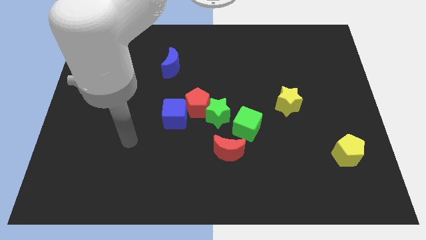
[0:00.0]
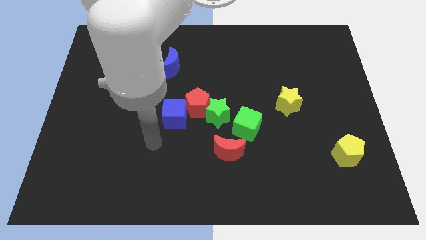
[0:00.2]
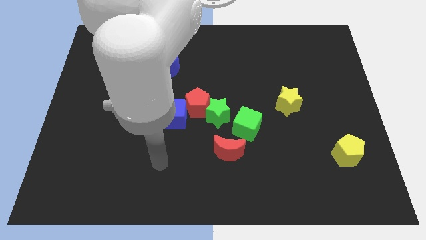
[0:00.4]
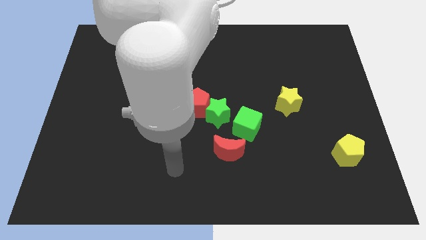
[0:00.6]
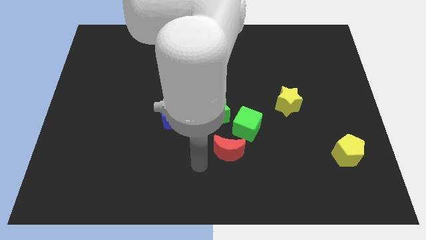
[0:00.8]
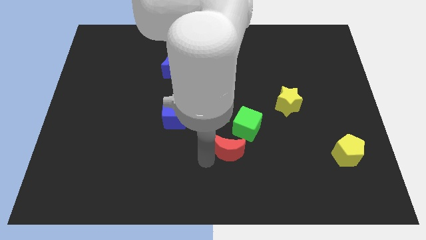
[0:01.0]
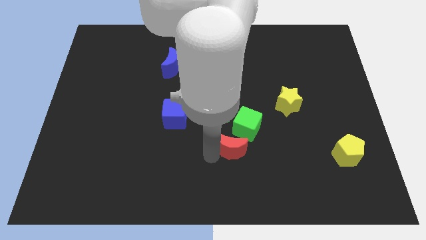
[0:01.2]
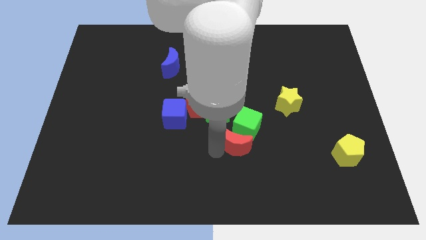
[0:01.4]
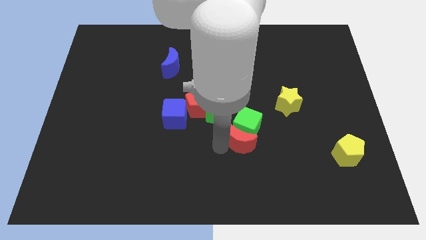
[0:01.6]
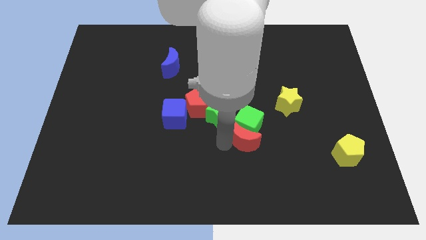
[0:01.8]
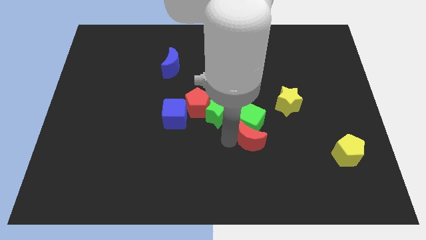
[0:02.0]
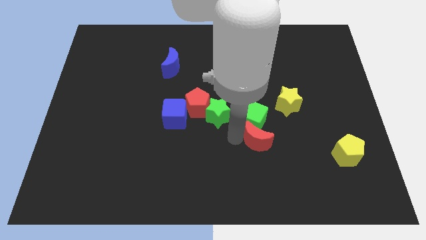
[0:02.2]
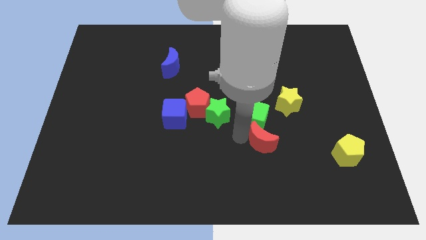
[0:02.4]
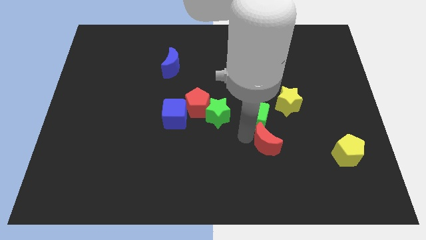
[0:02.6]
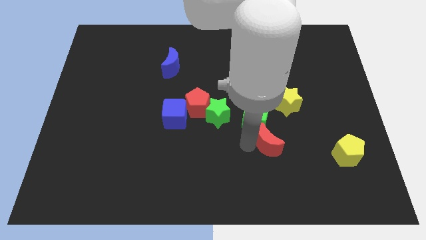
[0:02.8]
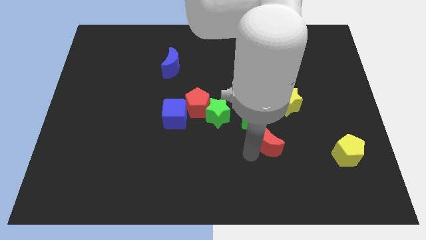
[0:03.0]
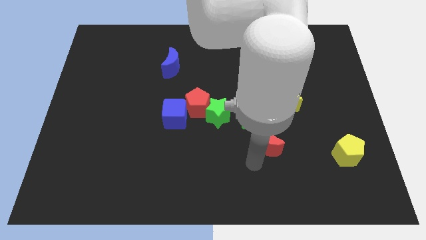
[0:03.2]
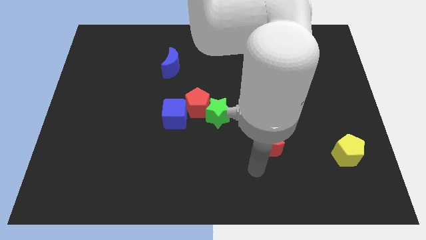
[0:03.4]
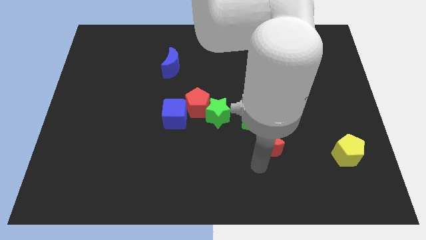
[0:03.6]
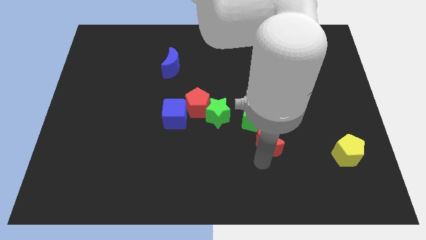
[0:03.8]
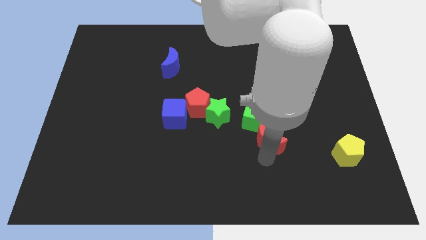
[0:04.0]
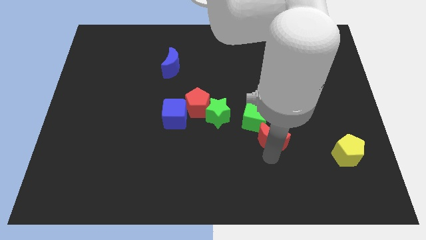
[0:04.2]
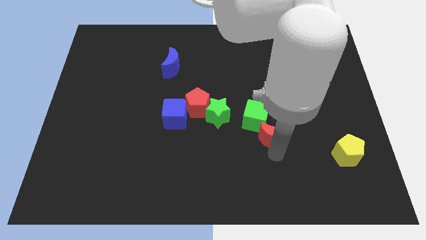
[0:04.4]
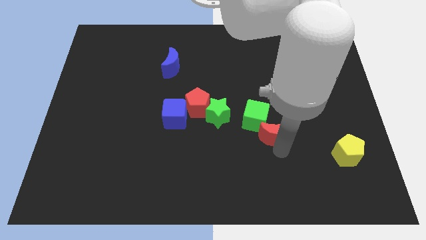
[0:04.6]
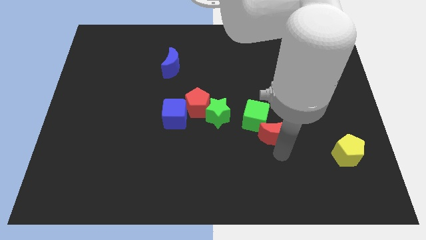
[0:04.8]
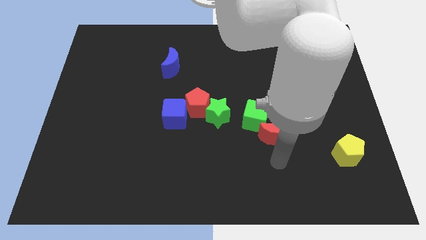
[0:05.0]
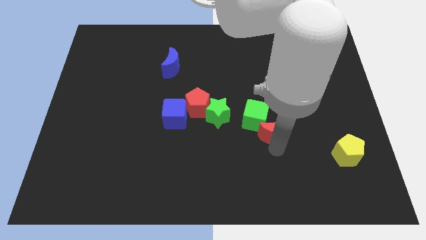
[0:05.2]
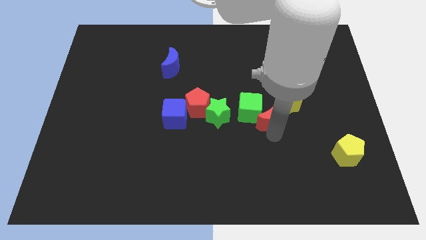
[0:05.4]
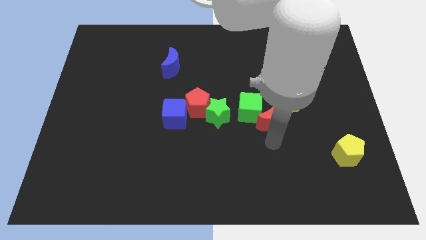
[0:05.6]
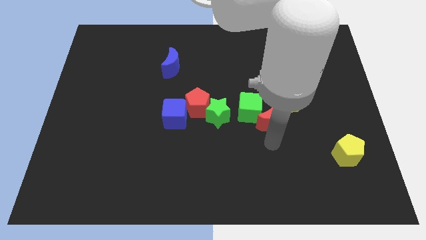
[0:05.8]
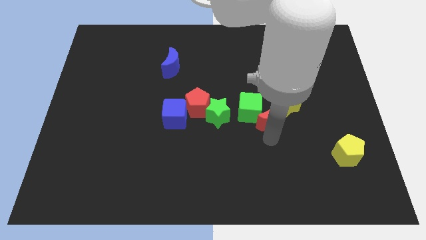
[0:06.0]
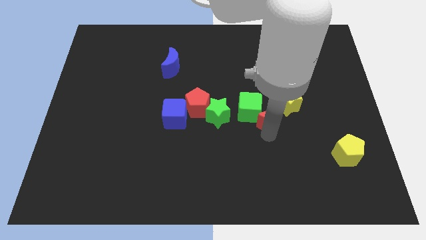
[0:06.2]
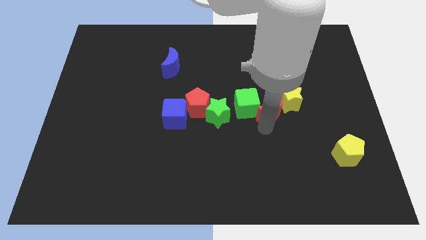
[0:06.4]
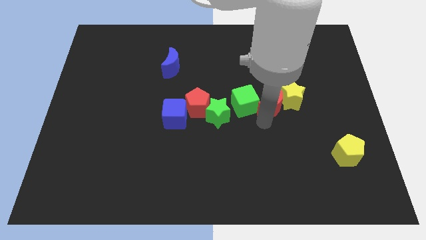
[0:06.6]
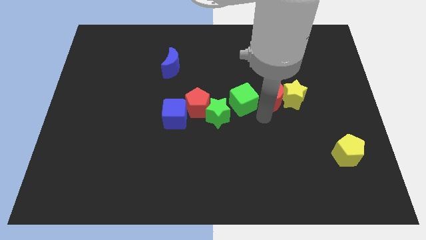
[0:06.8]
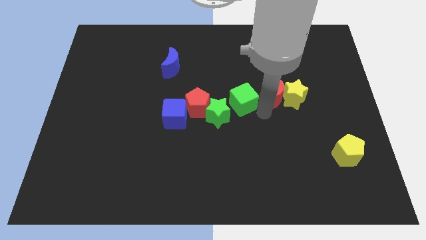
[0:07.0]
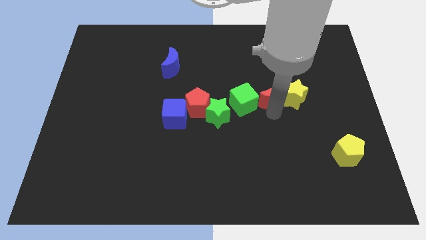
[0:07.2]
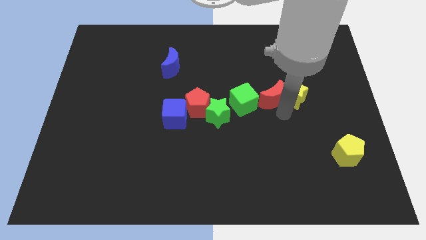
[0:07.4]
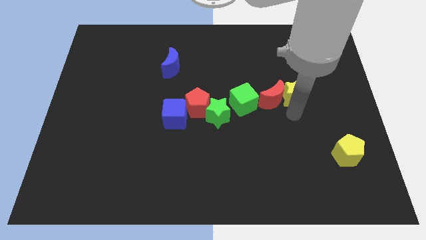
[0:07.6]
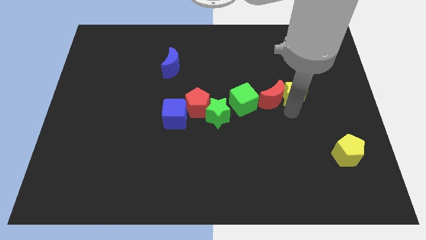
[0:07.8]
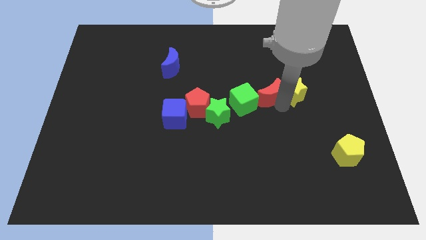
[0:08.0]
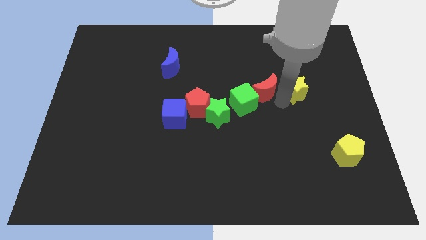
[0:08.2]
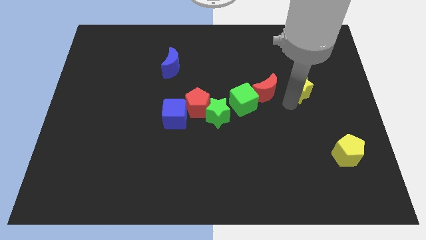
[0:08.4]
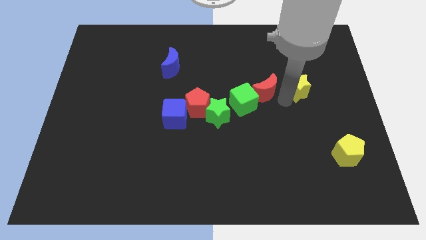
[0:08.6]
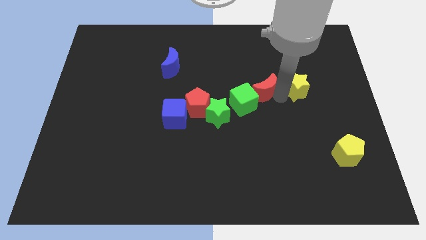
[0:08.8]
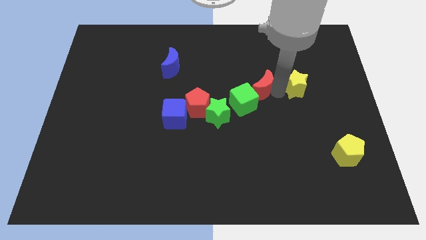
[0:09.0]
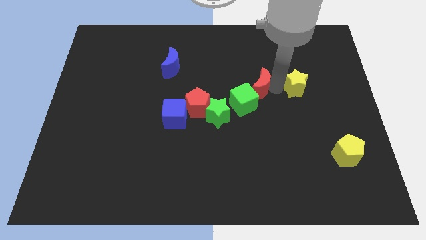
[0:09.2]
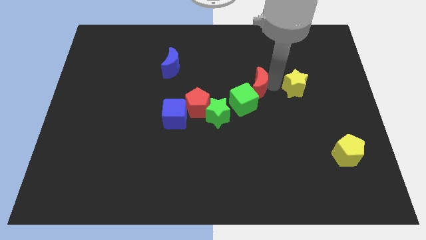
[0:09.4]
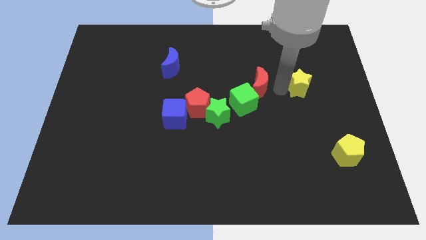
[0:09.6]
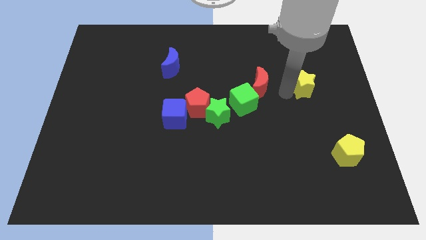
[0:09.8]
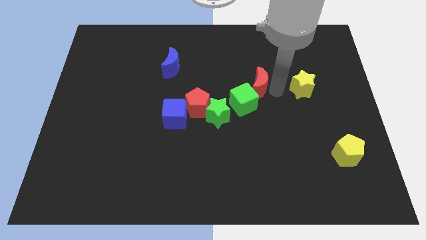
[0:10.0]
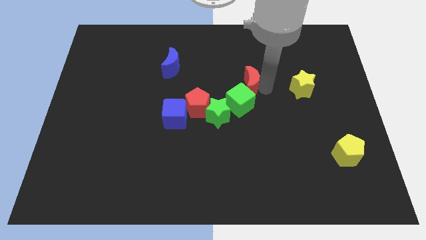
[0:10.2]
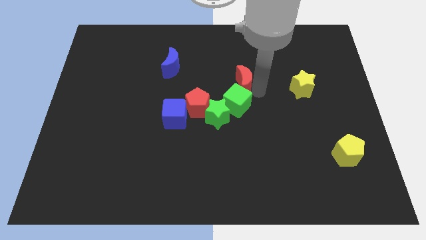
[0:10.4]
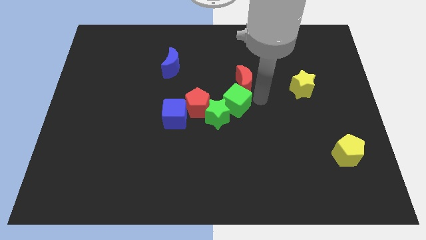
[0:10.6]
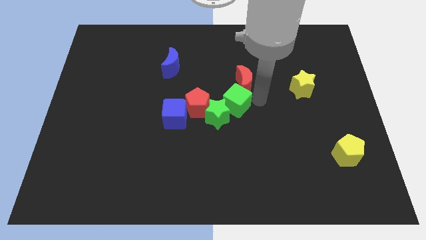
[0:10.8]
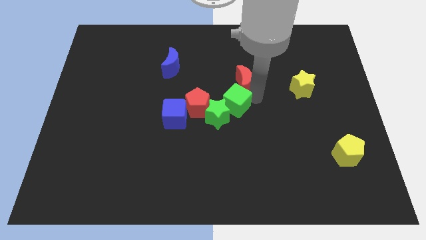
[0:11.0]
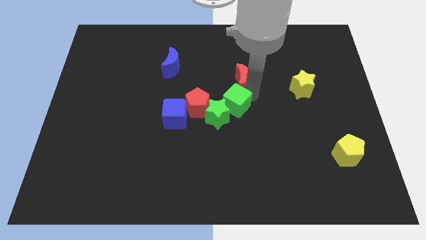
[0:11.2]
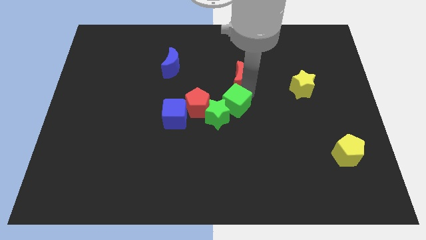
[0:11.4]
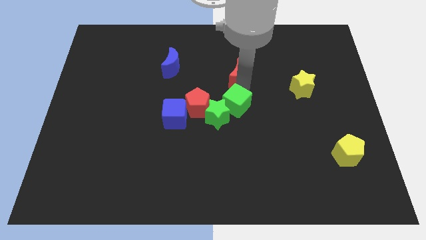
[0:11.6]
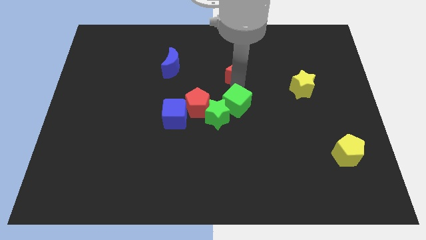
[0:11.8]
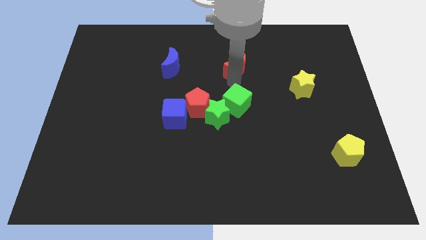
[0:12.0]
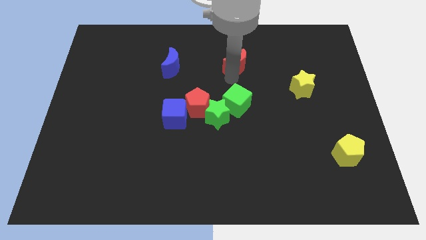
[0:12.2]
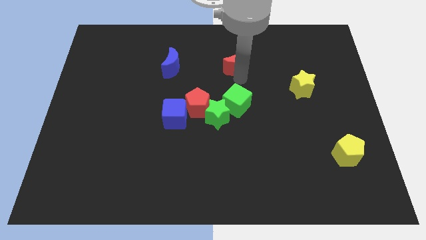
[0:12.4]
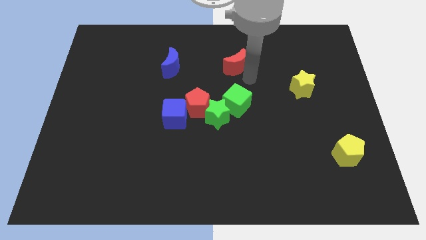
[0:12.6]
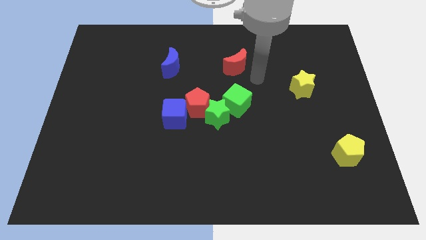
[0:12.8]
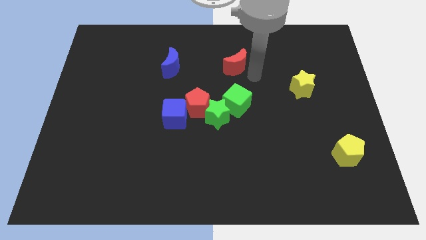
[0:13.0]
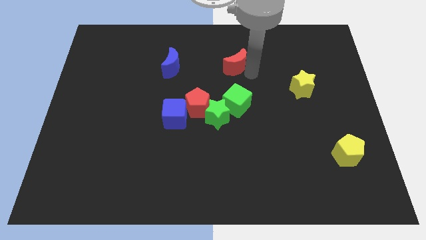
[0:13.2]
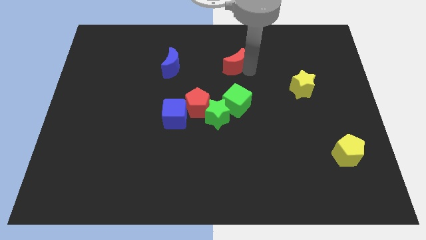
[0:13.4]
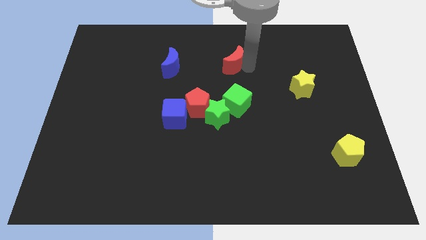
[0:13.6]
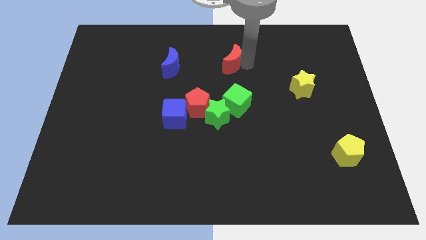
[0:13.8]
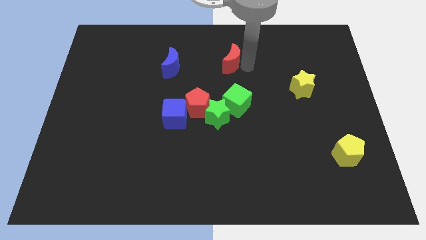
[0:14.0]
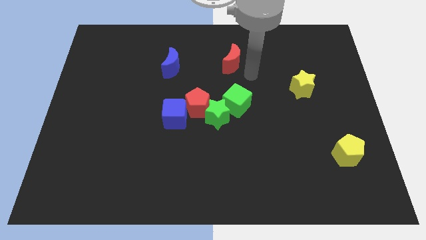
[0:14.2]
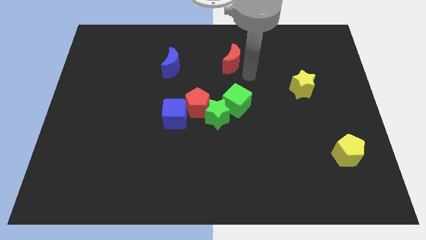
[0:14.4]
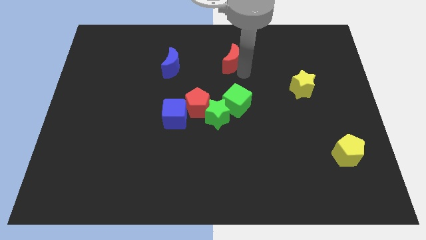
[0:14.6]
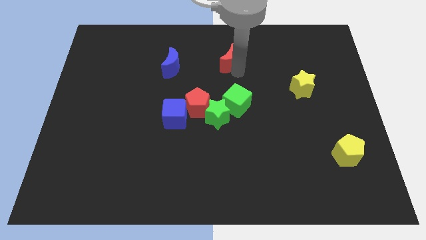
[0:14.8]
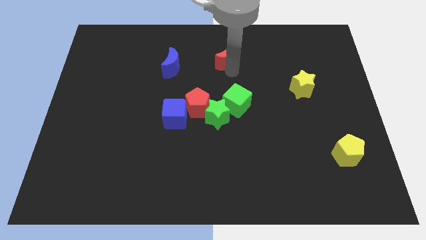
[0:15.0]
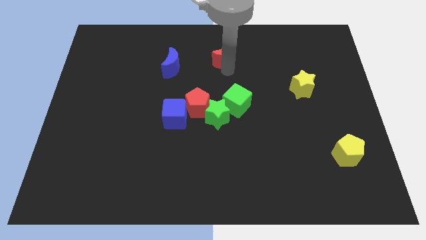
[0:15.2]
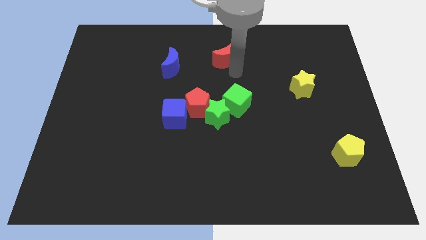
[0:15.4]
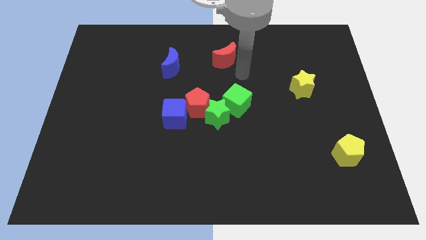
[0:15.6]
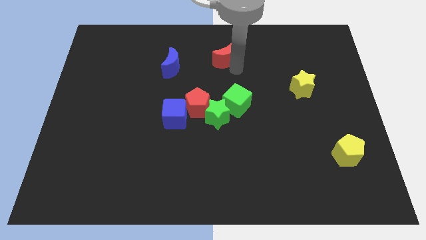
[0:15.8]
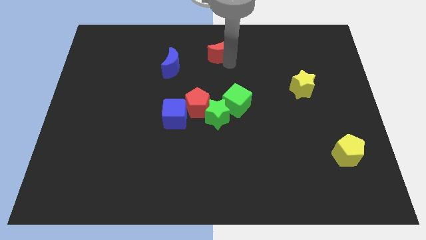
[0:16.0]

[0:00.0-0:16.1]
push the red moon to the top
